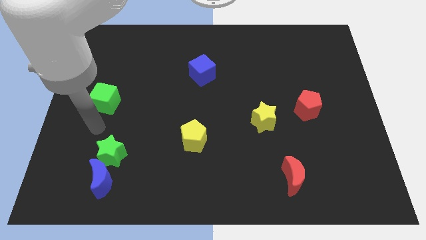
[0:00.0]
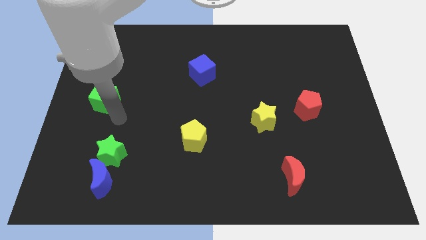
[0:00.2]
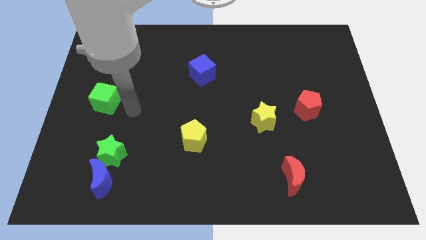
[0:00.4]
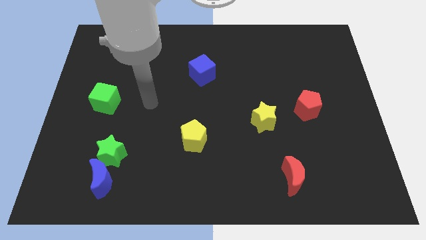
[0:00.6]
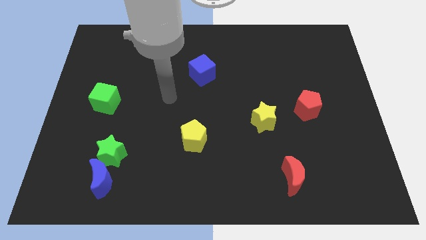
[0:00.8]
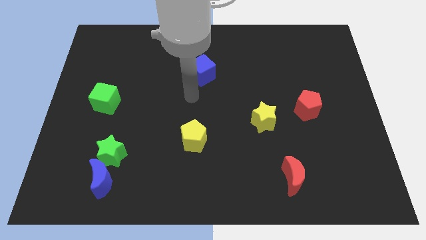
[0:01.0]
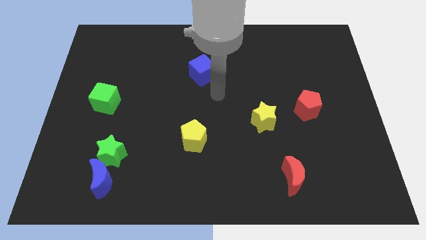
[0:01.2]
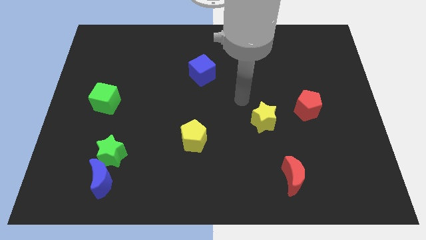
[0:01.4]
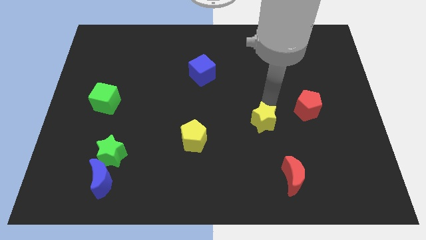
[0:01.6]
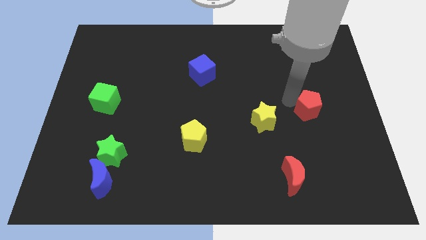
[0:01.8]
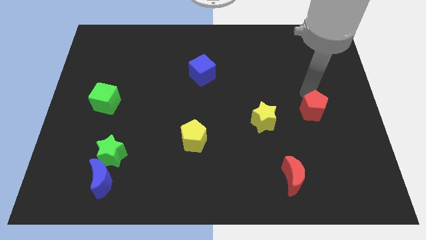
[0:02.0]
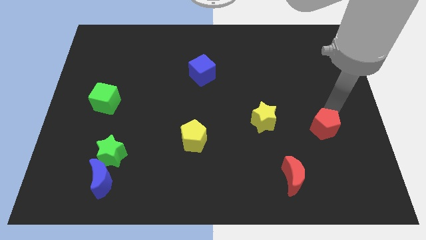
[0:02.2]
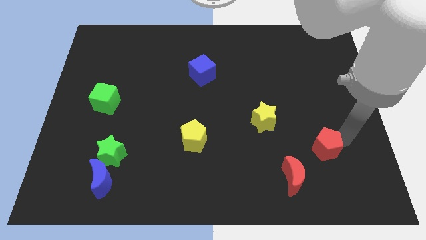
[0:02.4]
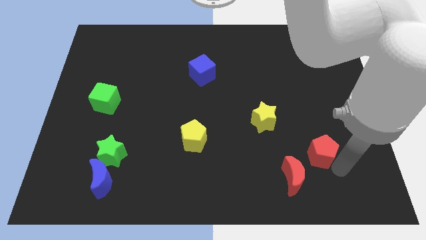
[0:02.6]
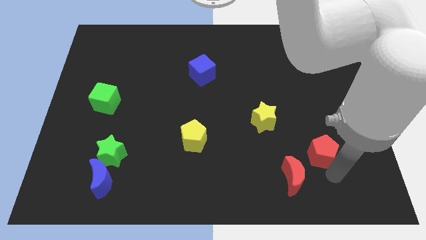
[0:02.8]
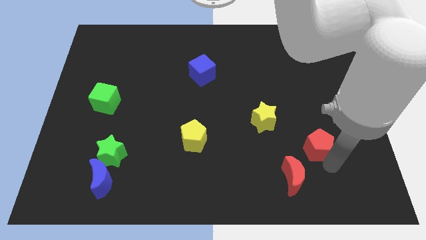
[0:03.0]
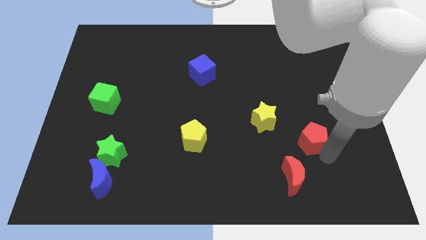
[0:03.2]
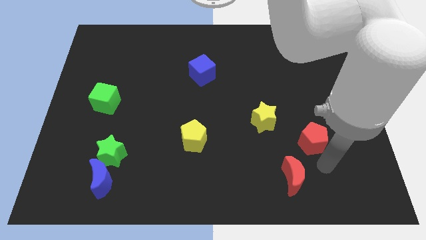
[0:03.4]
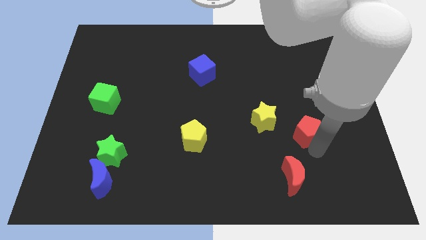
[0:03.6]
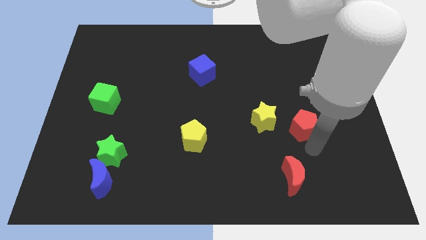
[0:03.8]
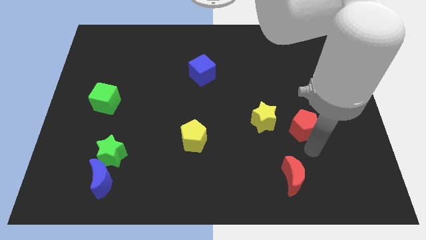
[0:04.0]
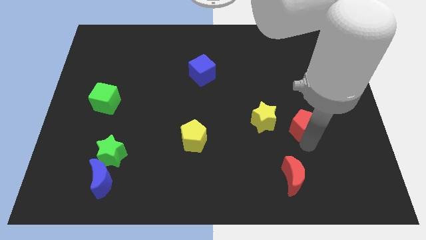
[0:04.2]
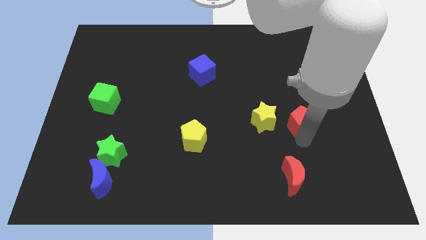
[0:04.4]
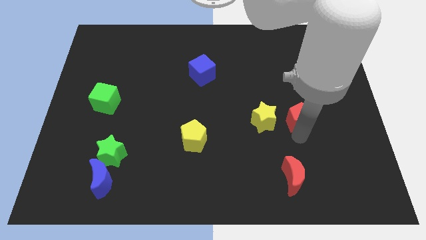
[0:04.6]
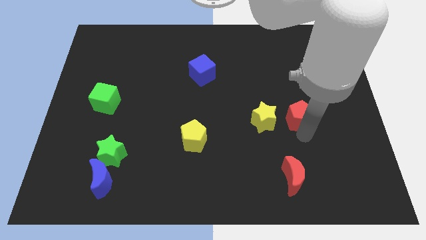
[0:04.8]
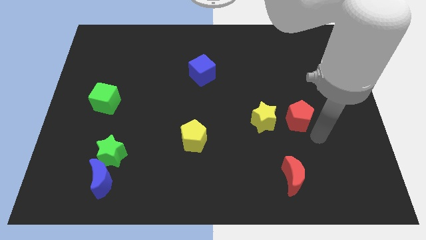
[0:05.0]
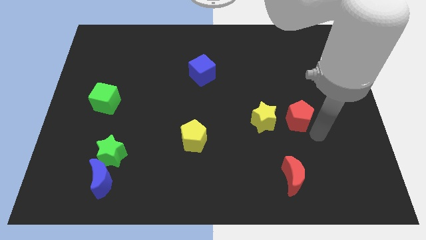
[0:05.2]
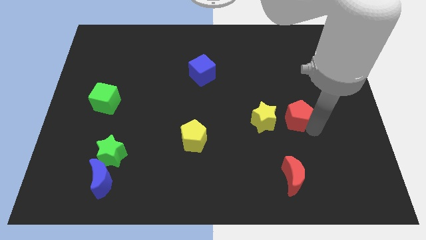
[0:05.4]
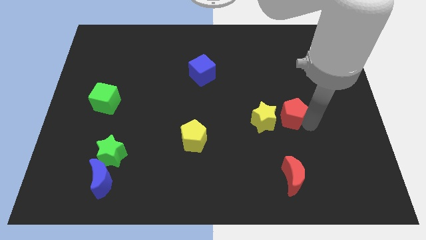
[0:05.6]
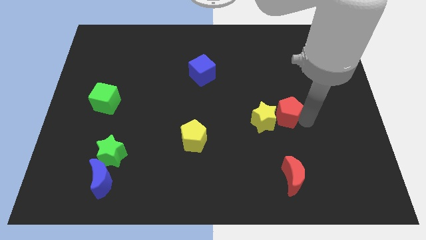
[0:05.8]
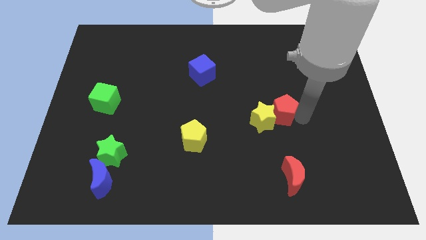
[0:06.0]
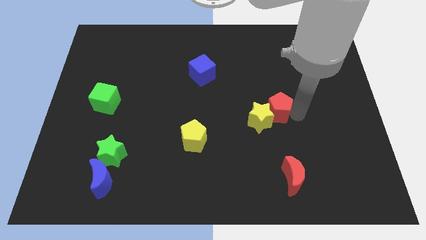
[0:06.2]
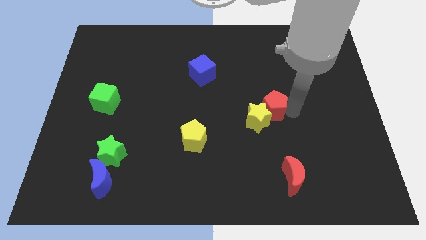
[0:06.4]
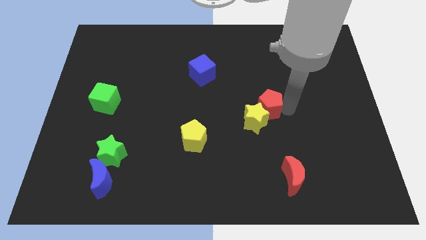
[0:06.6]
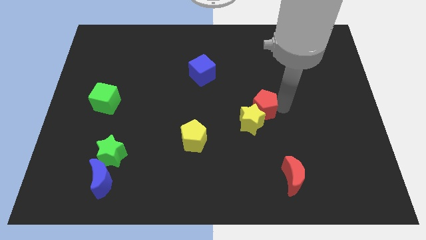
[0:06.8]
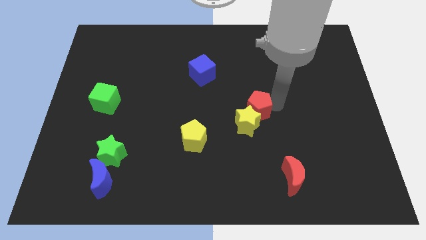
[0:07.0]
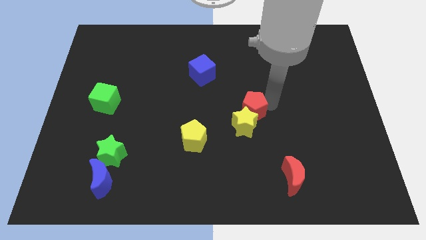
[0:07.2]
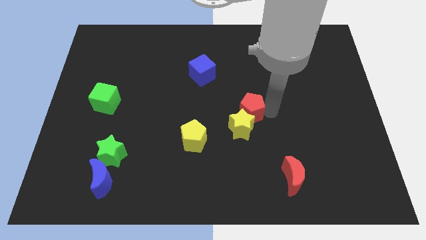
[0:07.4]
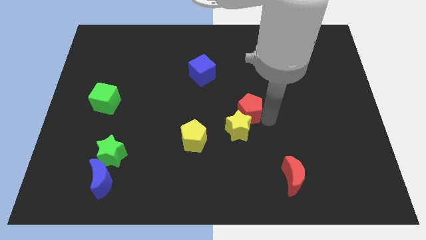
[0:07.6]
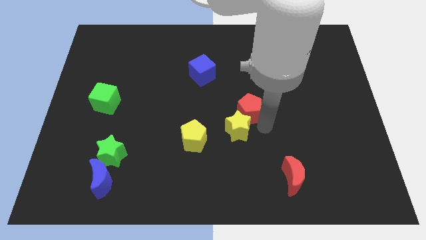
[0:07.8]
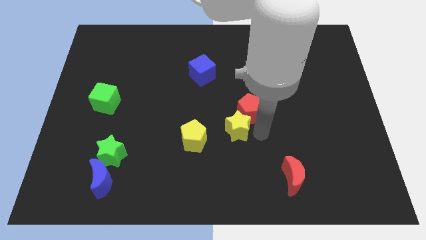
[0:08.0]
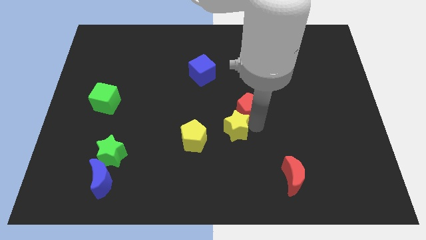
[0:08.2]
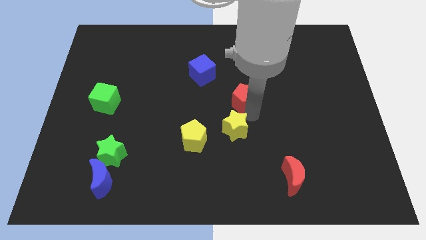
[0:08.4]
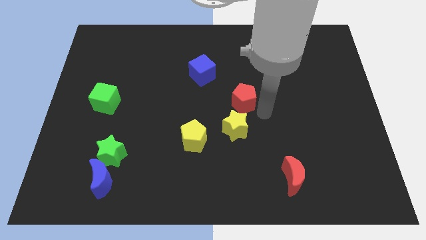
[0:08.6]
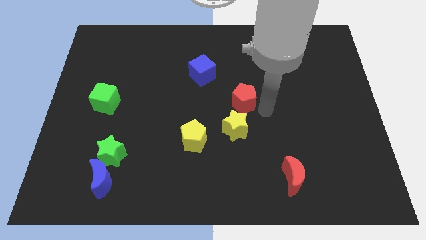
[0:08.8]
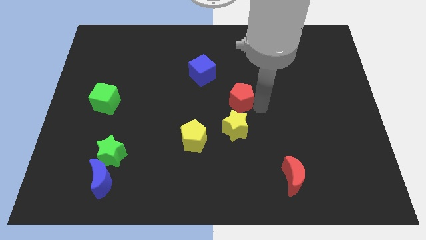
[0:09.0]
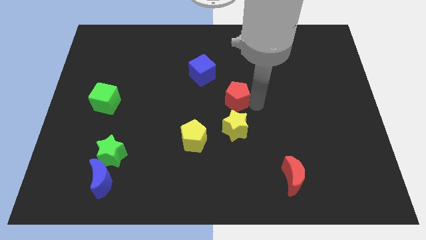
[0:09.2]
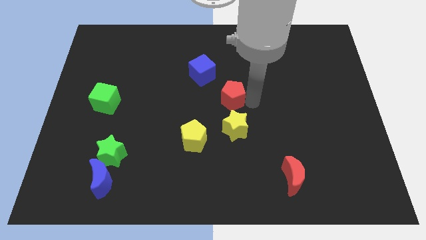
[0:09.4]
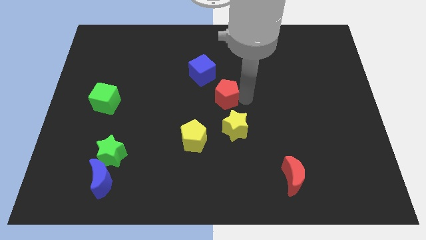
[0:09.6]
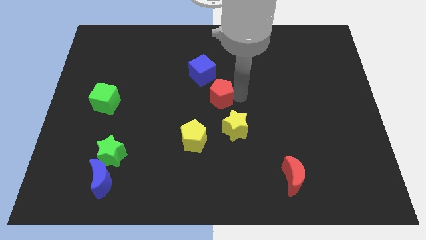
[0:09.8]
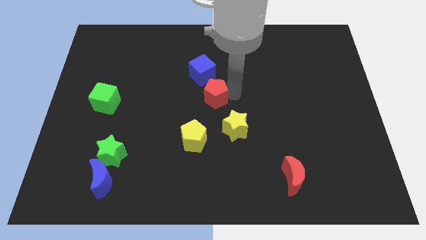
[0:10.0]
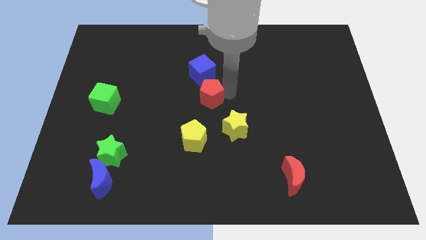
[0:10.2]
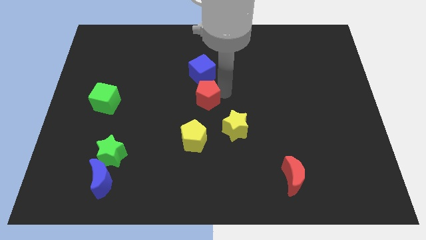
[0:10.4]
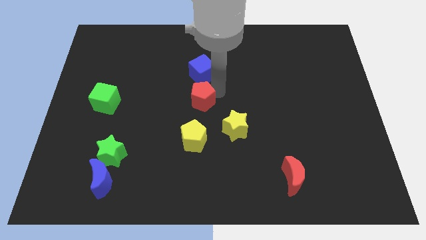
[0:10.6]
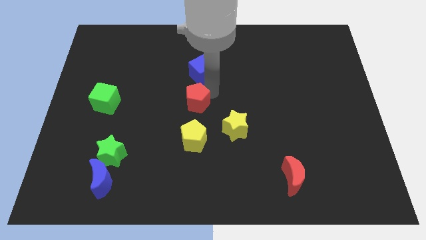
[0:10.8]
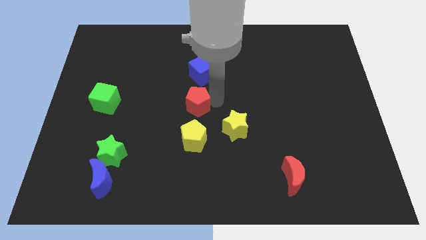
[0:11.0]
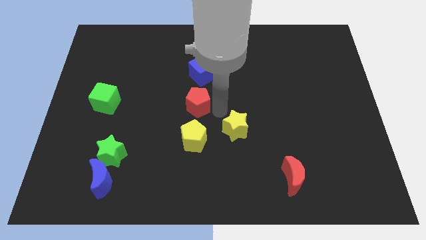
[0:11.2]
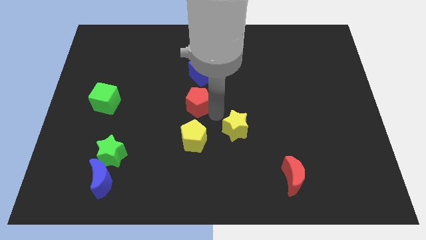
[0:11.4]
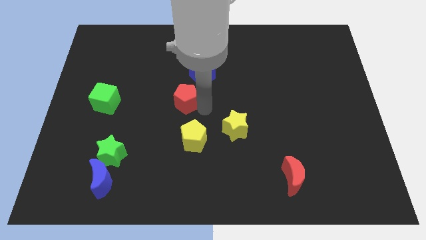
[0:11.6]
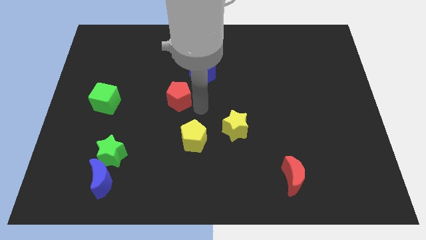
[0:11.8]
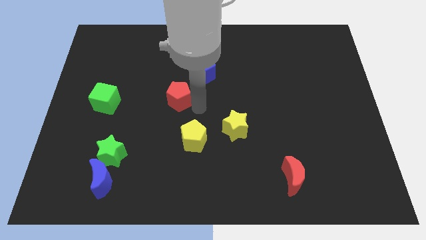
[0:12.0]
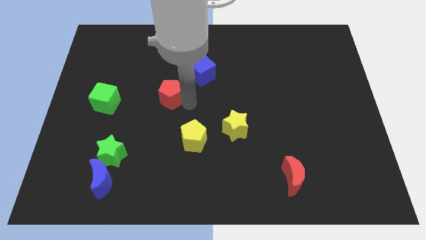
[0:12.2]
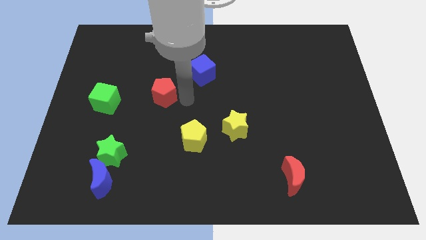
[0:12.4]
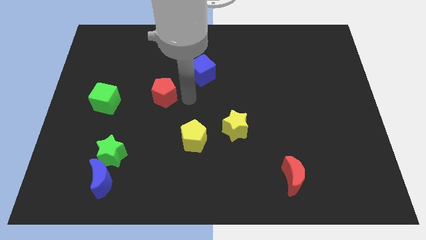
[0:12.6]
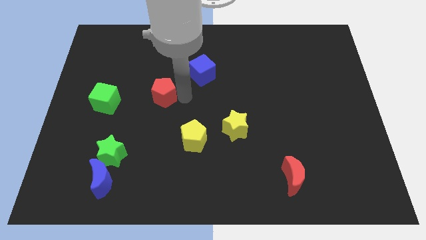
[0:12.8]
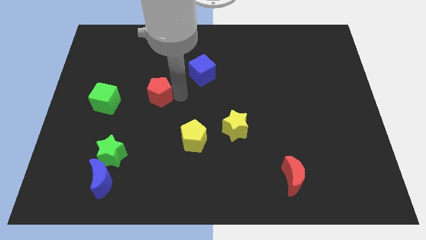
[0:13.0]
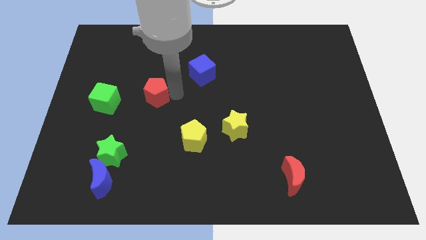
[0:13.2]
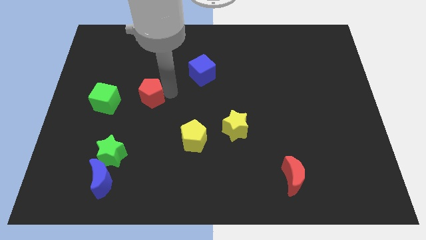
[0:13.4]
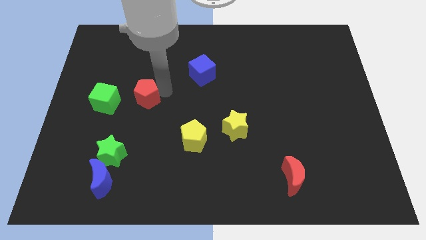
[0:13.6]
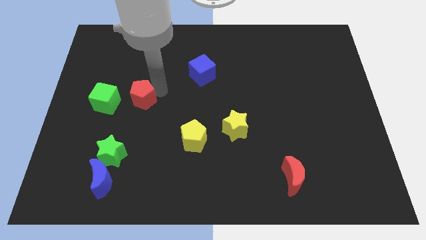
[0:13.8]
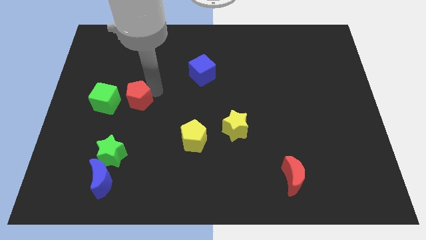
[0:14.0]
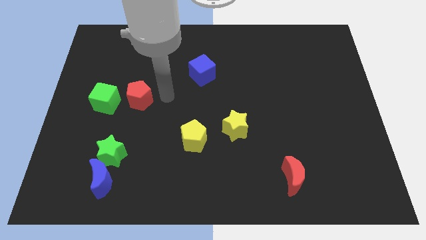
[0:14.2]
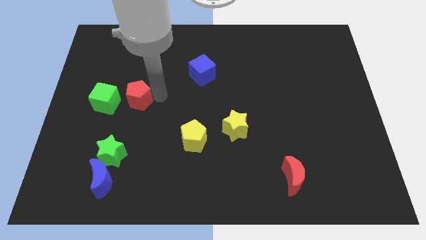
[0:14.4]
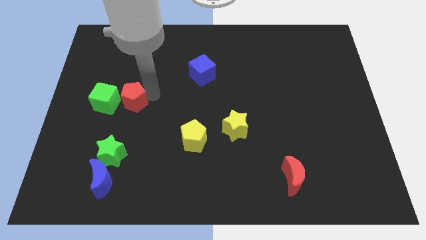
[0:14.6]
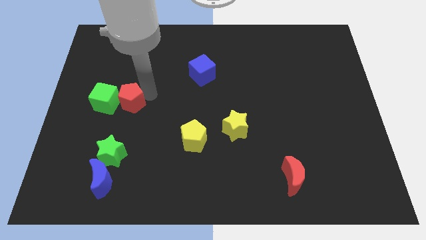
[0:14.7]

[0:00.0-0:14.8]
move the red pentagon close to the green cube
